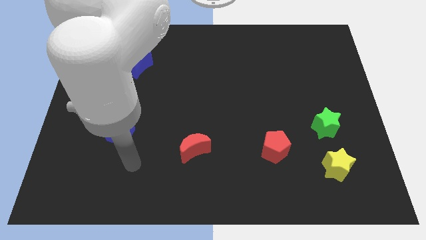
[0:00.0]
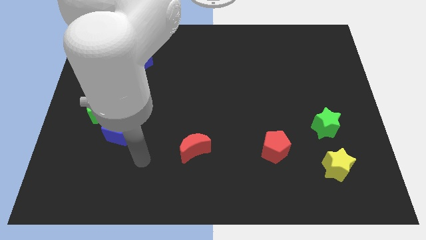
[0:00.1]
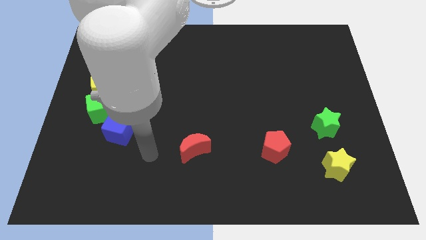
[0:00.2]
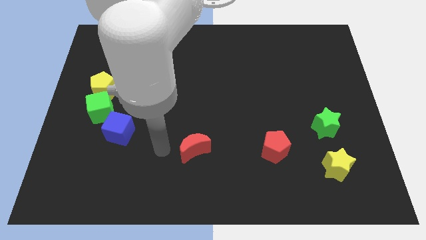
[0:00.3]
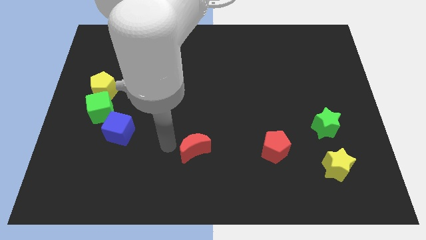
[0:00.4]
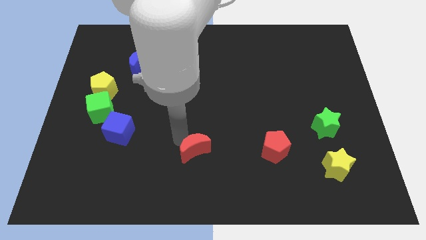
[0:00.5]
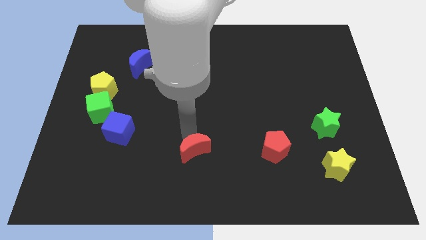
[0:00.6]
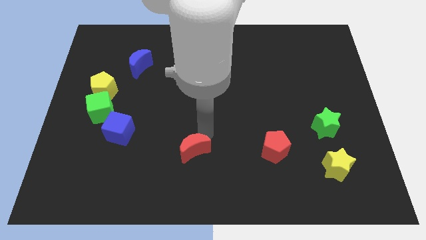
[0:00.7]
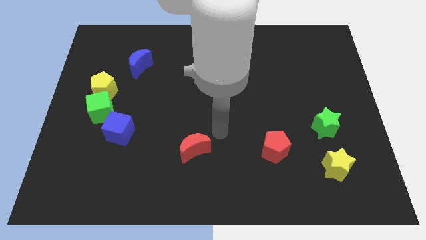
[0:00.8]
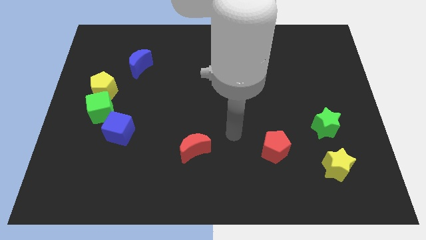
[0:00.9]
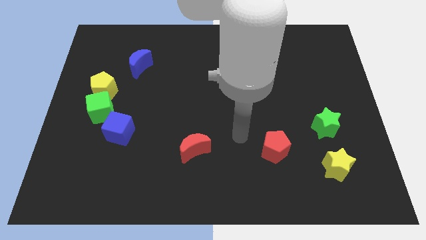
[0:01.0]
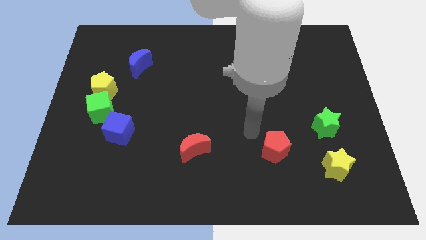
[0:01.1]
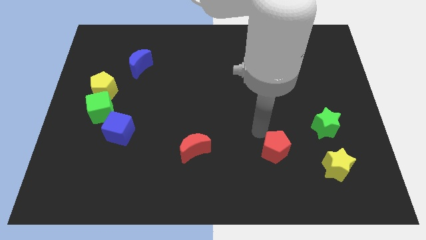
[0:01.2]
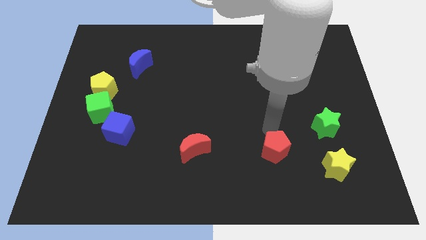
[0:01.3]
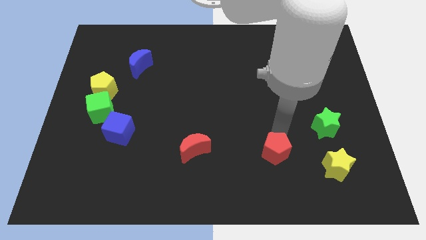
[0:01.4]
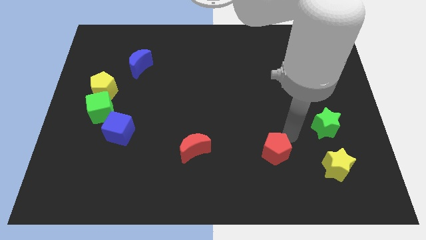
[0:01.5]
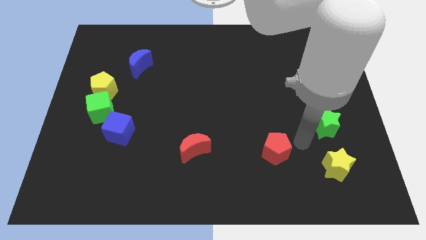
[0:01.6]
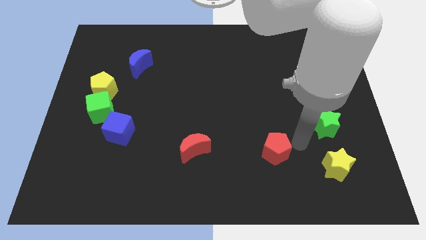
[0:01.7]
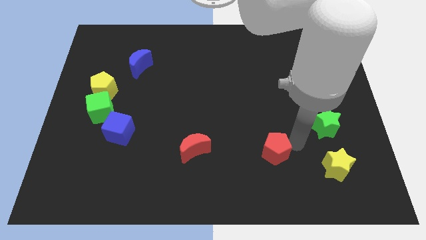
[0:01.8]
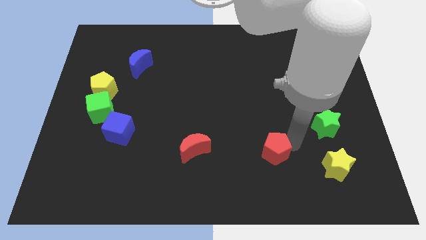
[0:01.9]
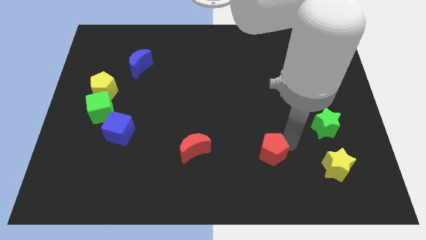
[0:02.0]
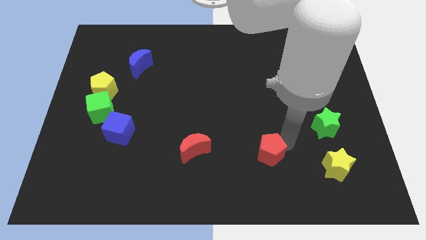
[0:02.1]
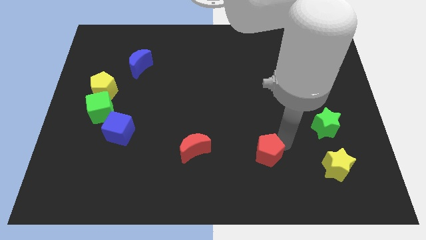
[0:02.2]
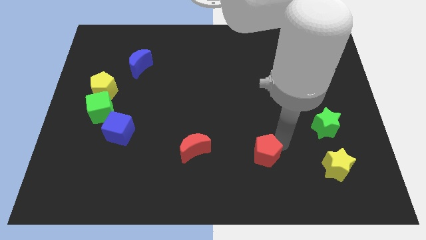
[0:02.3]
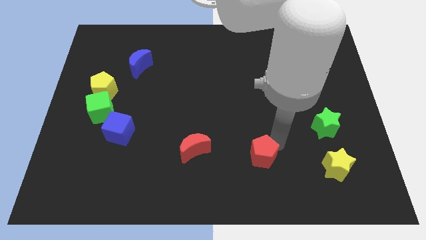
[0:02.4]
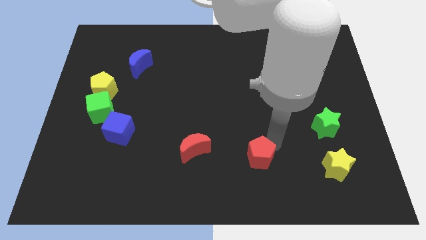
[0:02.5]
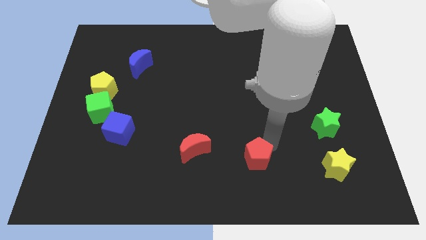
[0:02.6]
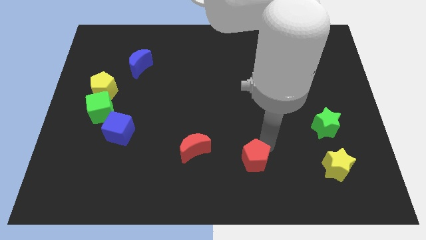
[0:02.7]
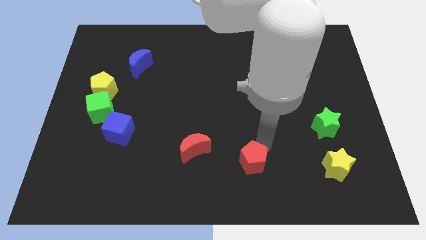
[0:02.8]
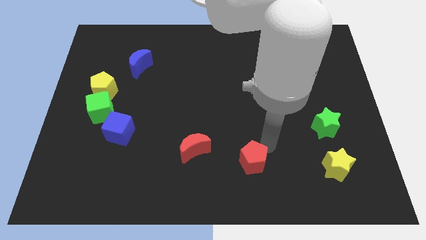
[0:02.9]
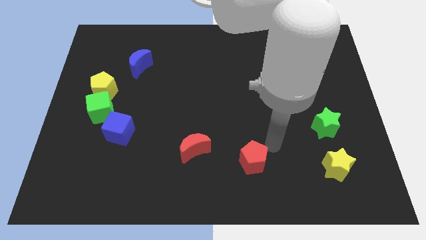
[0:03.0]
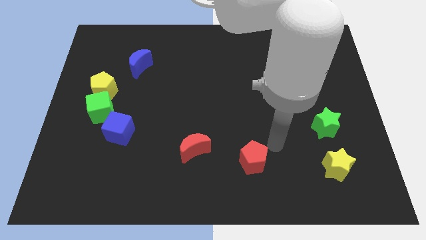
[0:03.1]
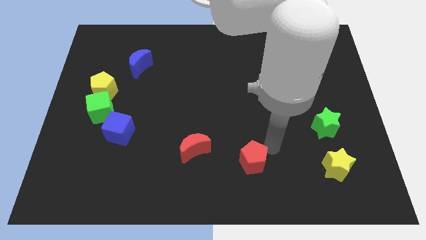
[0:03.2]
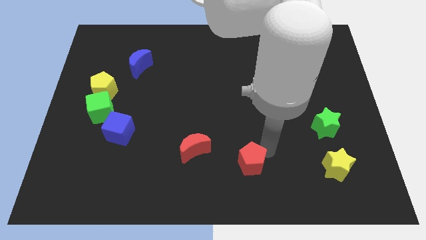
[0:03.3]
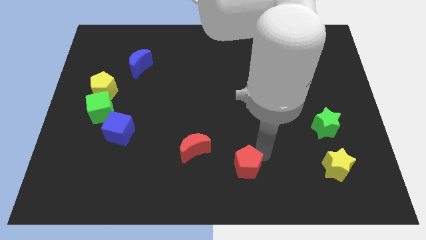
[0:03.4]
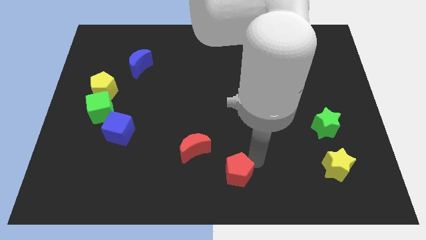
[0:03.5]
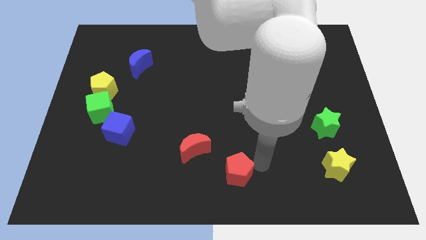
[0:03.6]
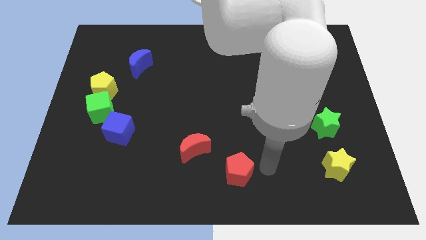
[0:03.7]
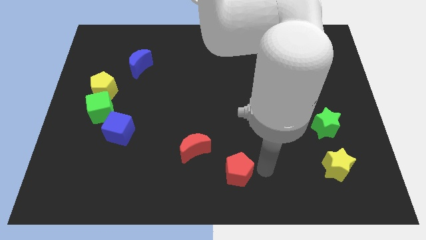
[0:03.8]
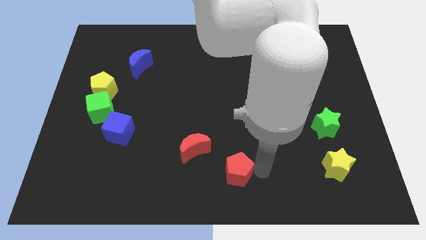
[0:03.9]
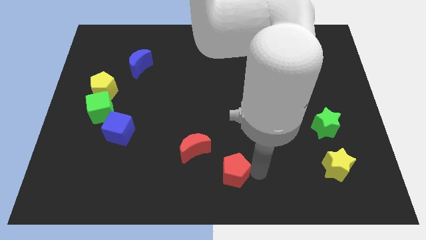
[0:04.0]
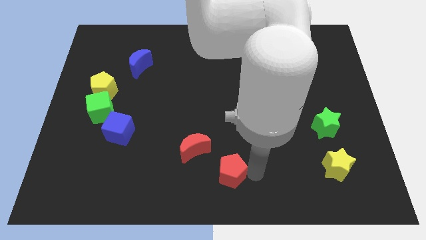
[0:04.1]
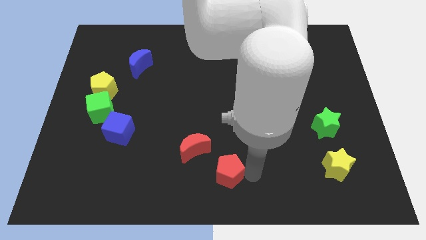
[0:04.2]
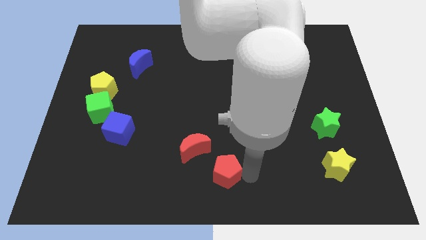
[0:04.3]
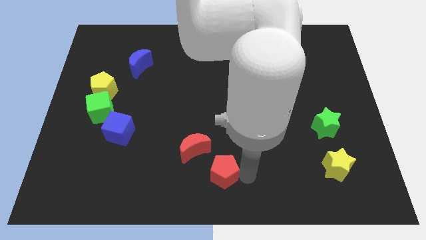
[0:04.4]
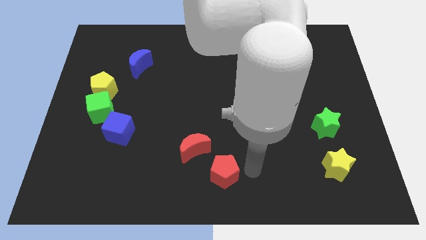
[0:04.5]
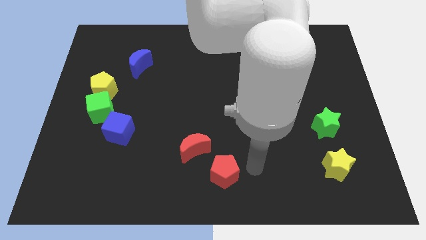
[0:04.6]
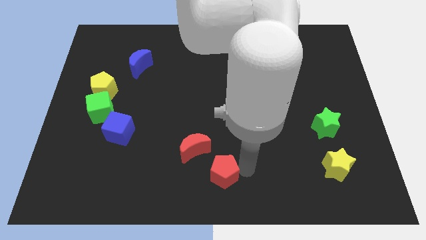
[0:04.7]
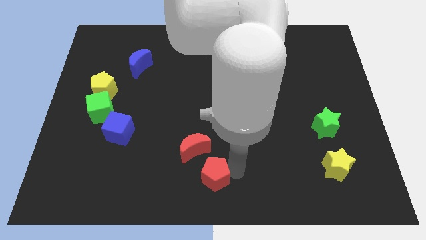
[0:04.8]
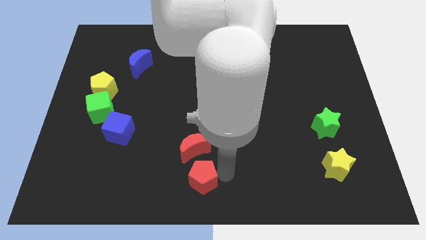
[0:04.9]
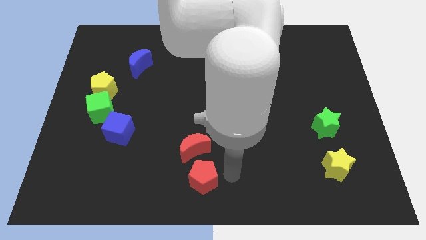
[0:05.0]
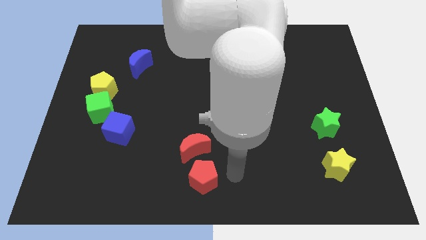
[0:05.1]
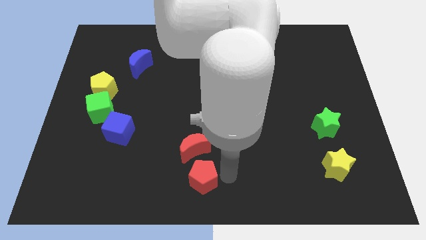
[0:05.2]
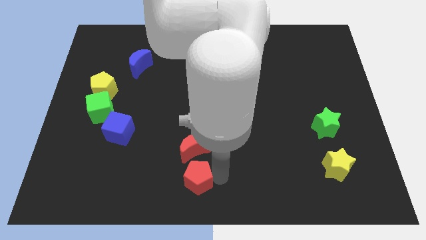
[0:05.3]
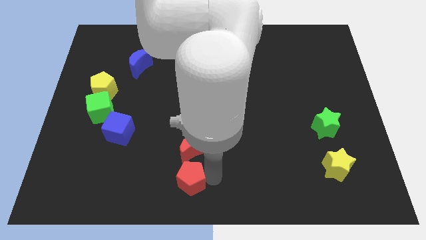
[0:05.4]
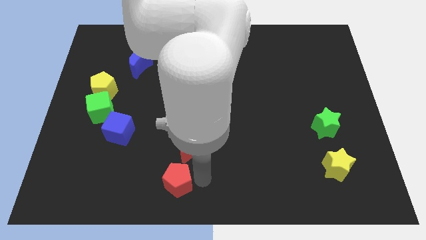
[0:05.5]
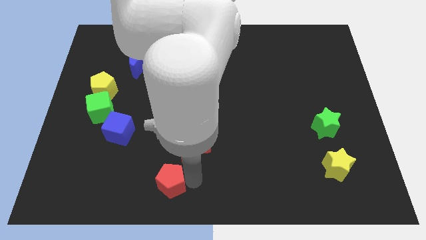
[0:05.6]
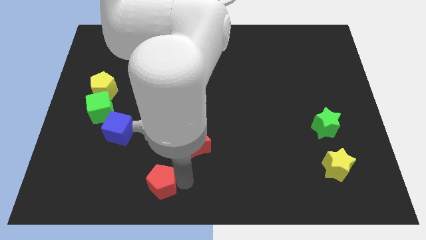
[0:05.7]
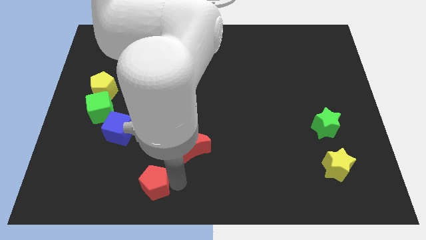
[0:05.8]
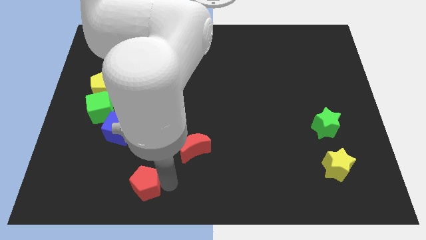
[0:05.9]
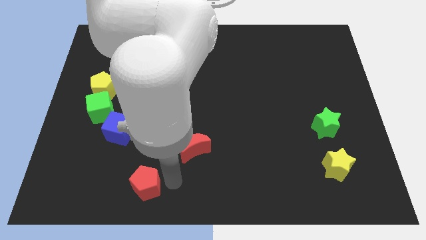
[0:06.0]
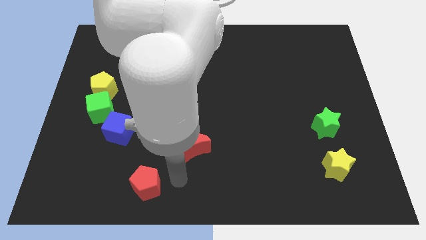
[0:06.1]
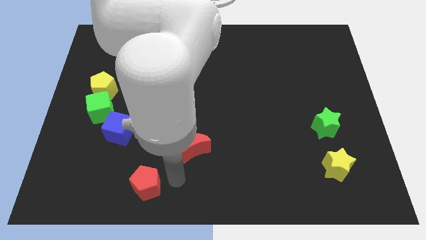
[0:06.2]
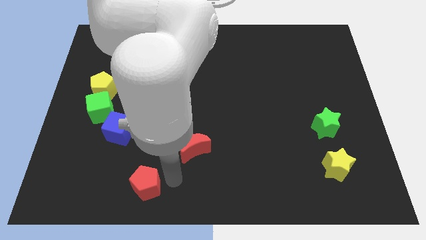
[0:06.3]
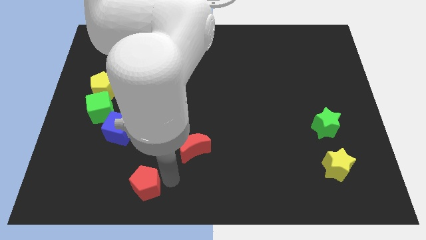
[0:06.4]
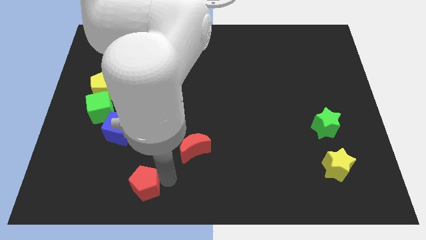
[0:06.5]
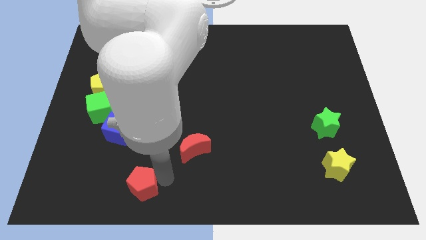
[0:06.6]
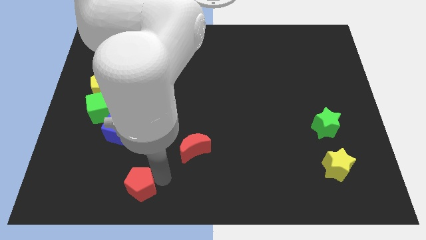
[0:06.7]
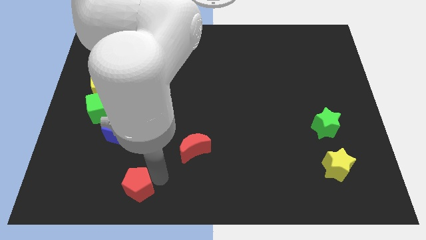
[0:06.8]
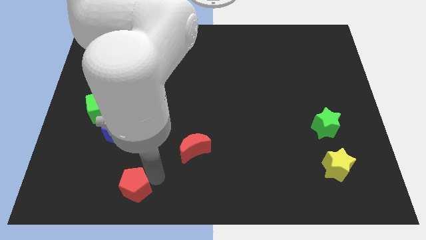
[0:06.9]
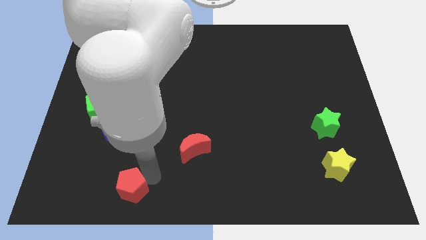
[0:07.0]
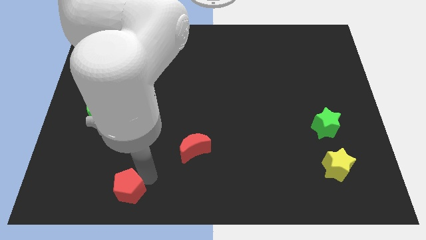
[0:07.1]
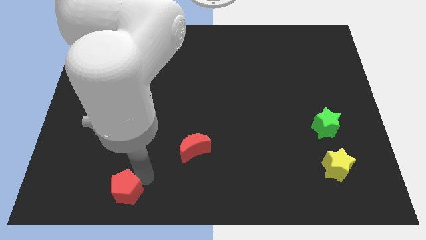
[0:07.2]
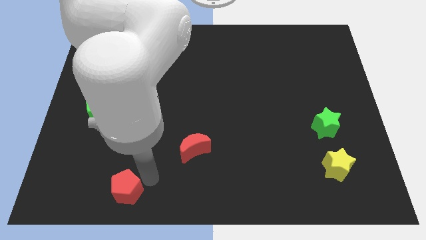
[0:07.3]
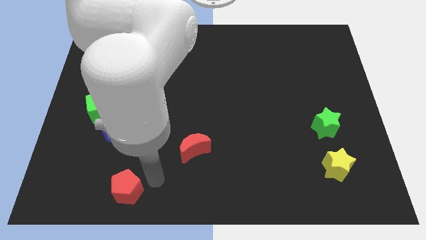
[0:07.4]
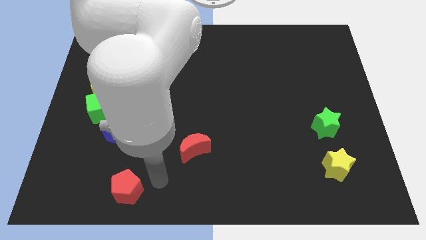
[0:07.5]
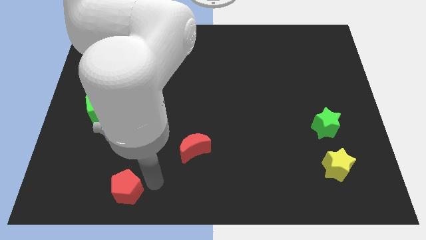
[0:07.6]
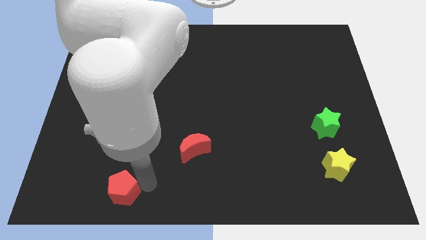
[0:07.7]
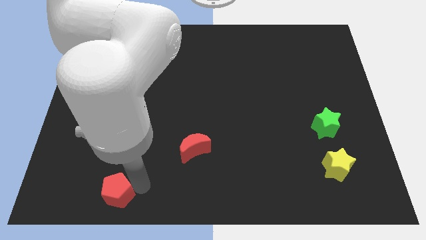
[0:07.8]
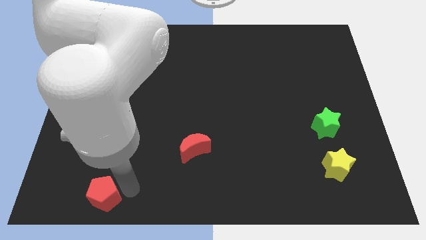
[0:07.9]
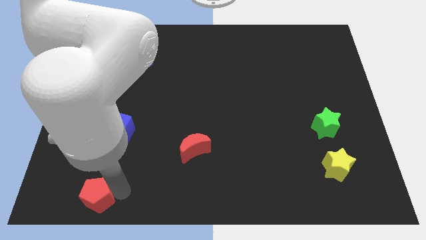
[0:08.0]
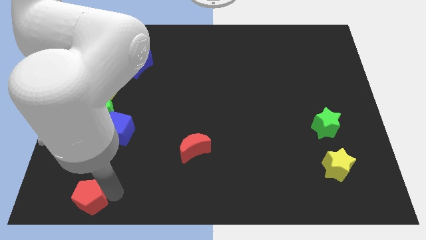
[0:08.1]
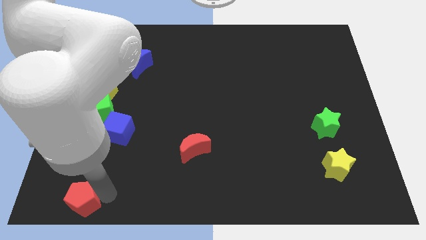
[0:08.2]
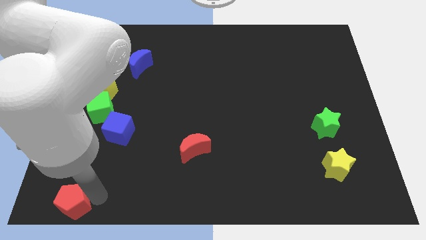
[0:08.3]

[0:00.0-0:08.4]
move the red pentagon to the bottom left
